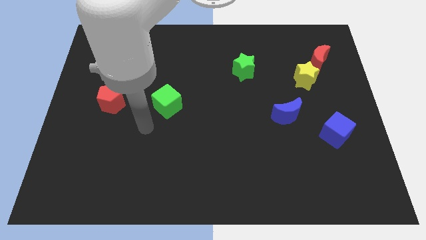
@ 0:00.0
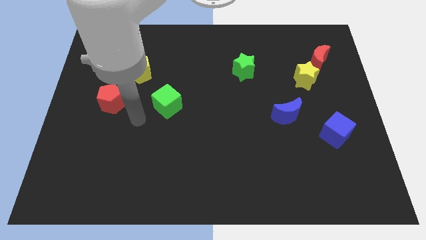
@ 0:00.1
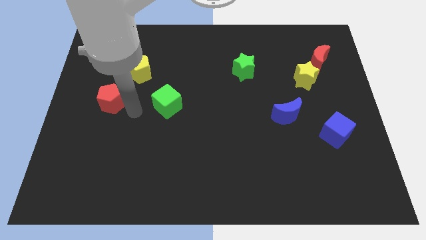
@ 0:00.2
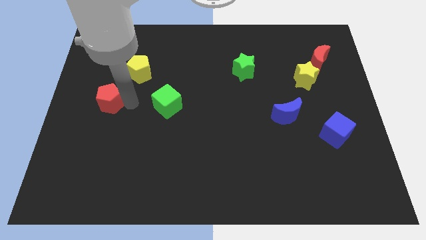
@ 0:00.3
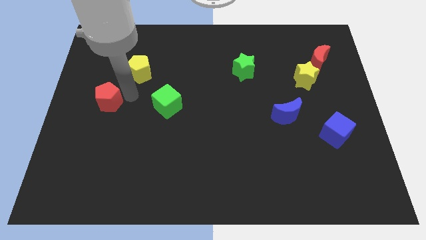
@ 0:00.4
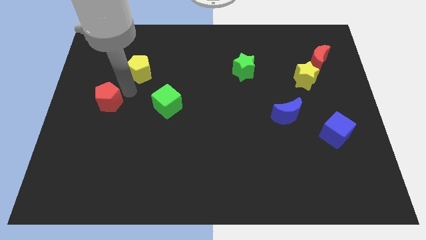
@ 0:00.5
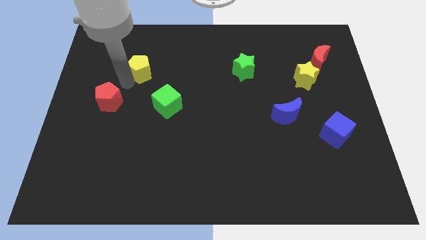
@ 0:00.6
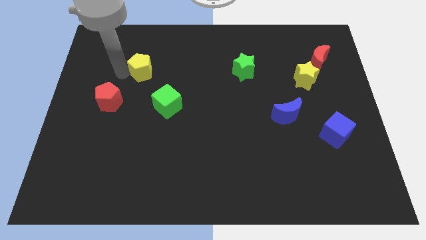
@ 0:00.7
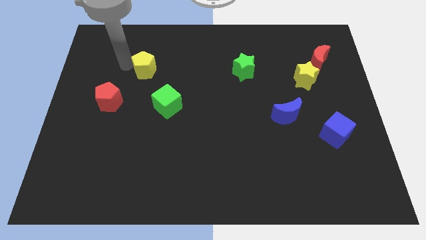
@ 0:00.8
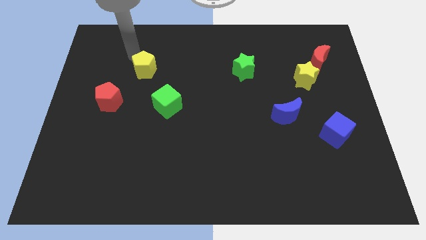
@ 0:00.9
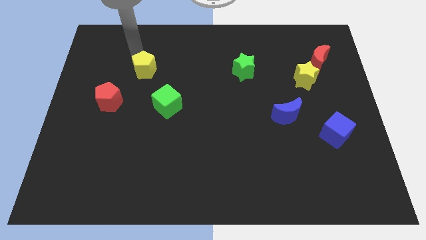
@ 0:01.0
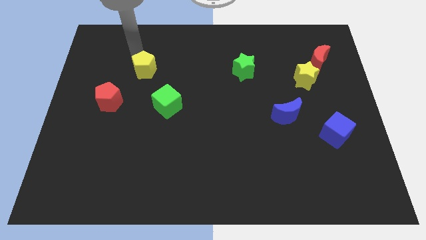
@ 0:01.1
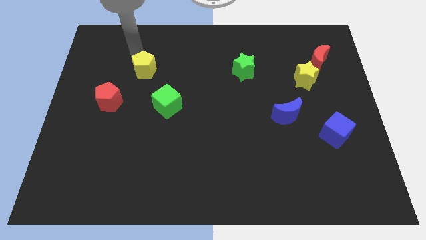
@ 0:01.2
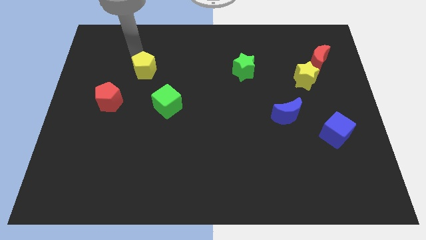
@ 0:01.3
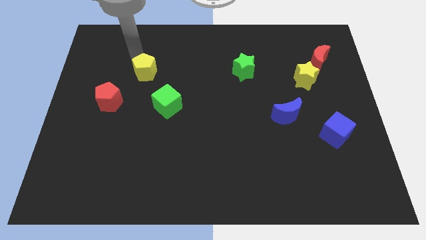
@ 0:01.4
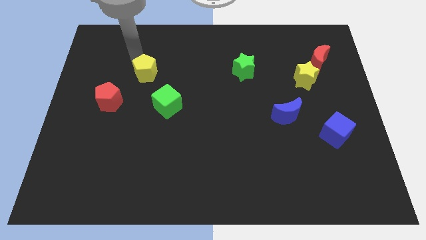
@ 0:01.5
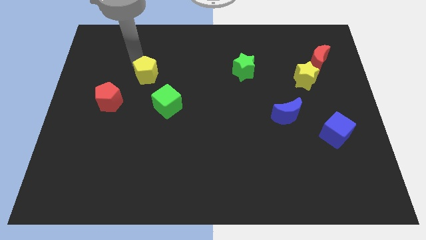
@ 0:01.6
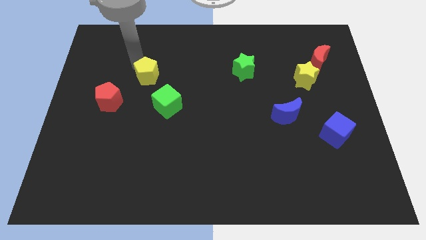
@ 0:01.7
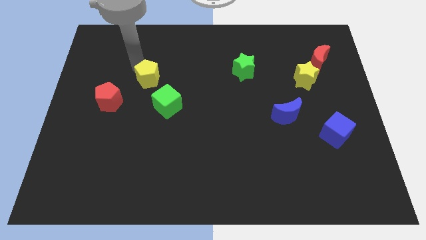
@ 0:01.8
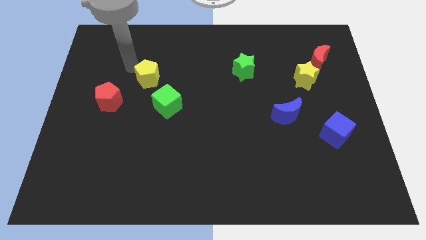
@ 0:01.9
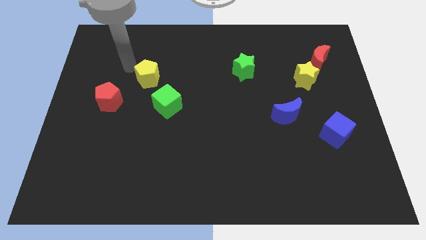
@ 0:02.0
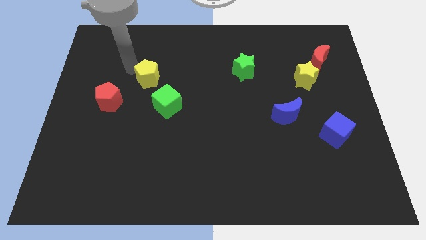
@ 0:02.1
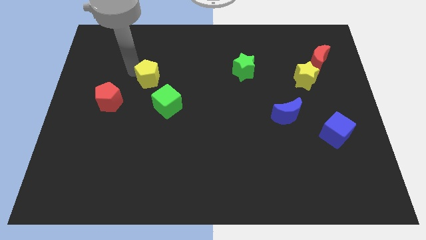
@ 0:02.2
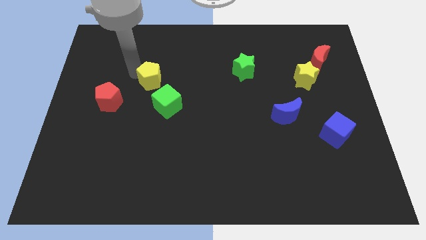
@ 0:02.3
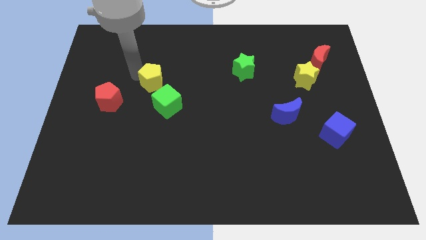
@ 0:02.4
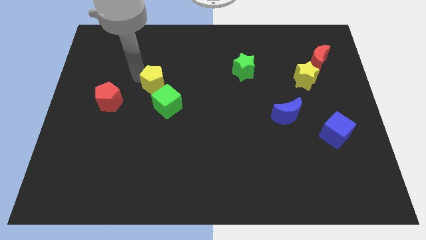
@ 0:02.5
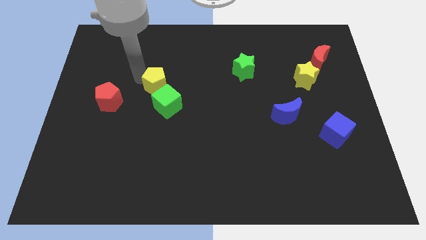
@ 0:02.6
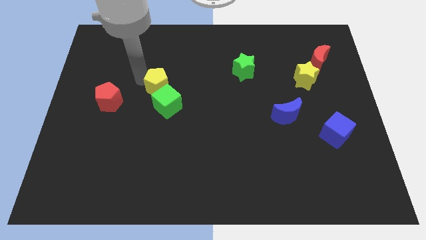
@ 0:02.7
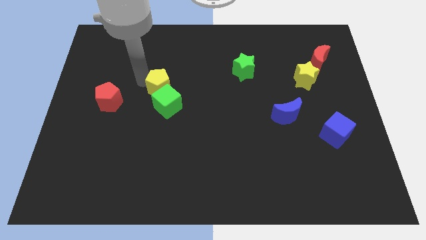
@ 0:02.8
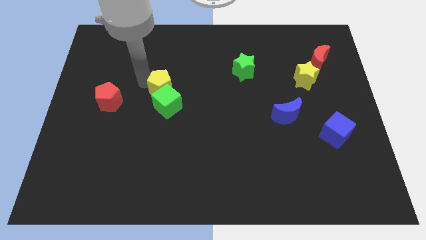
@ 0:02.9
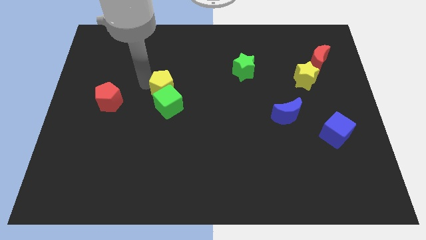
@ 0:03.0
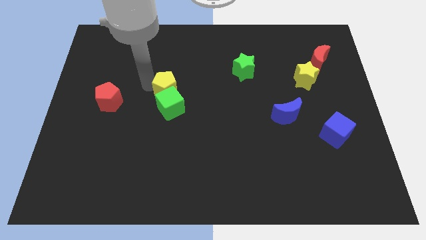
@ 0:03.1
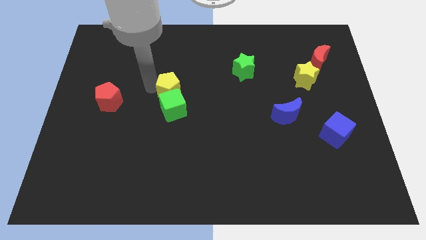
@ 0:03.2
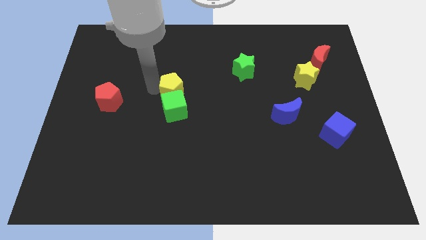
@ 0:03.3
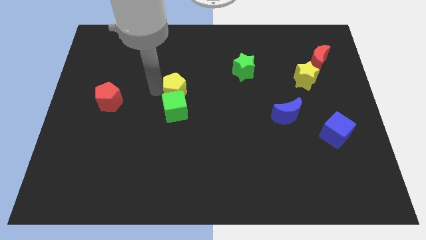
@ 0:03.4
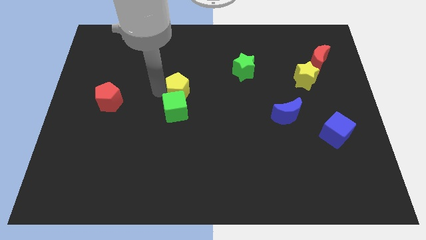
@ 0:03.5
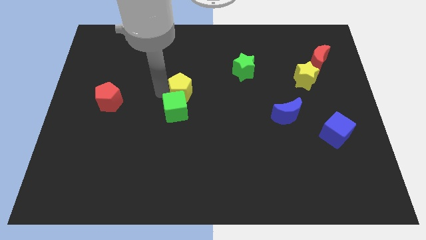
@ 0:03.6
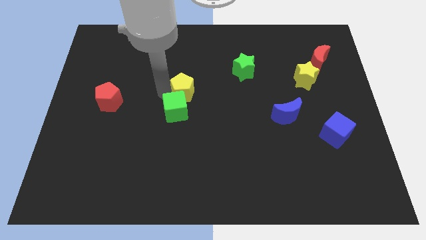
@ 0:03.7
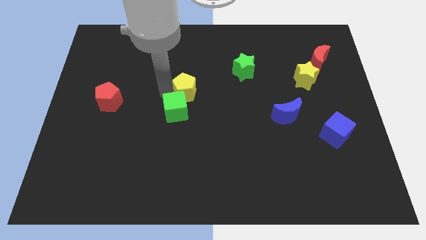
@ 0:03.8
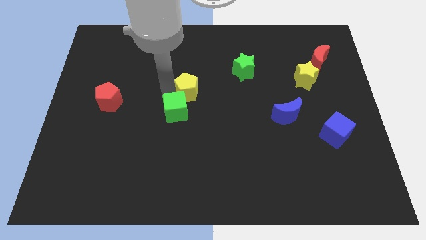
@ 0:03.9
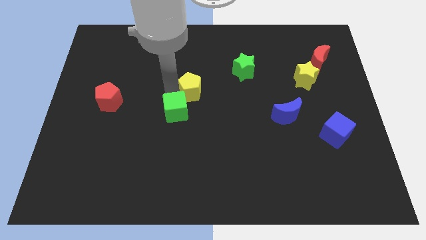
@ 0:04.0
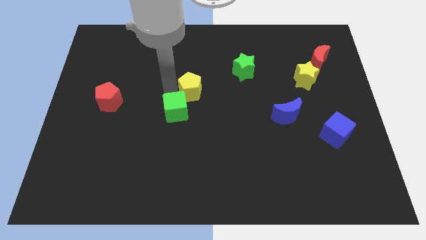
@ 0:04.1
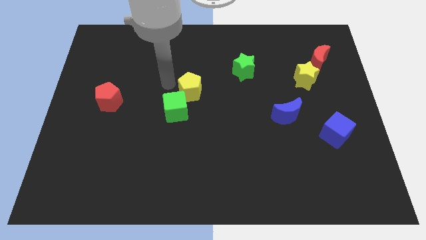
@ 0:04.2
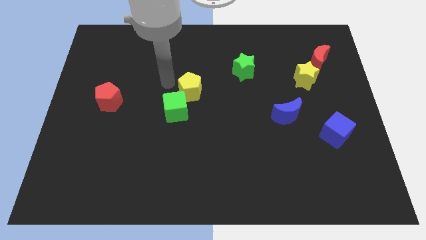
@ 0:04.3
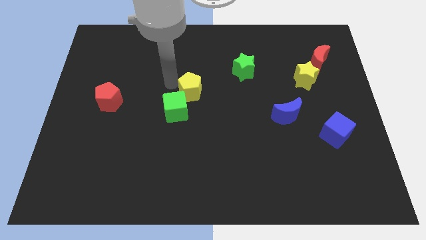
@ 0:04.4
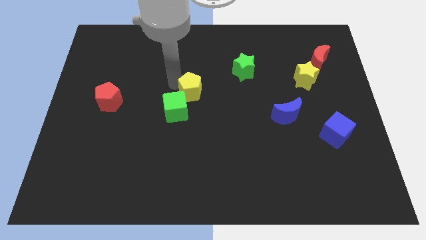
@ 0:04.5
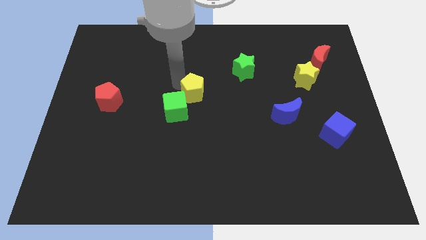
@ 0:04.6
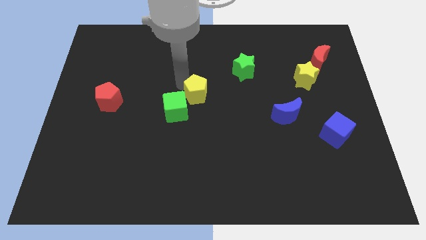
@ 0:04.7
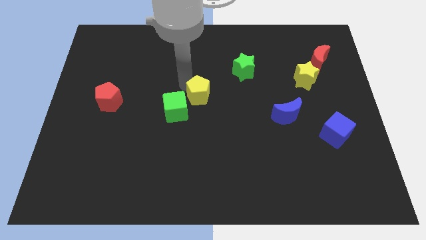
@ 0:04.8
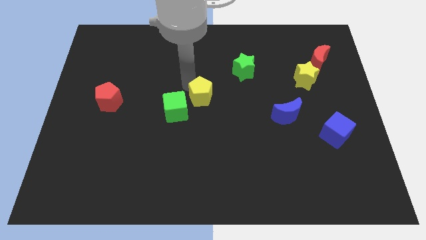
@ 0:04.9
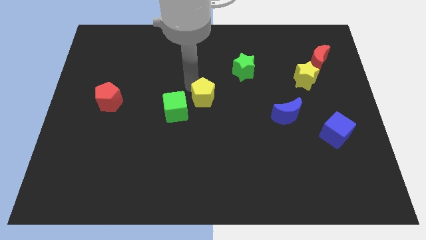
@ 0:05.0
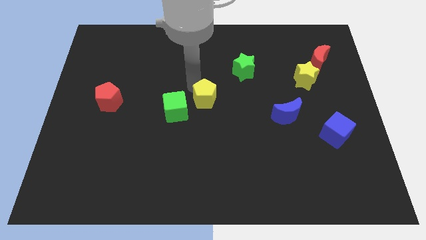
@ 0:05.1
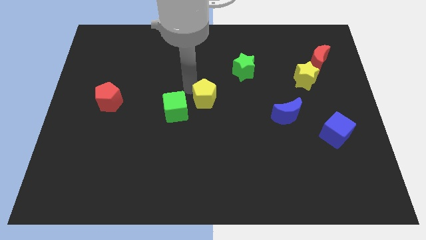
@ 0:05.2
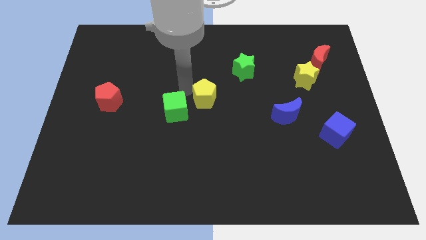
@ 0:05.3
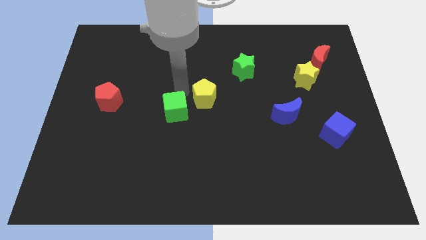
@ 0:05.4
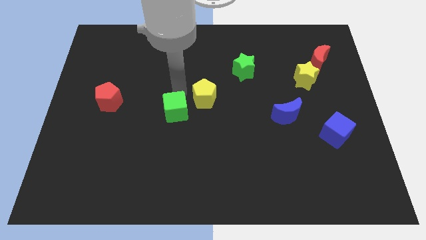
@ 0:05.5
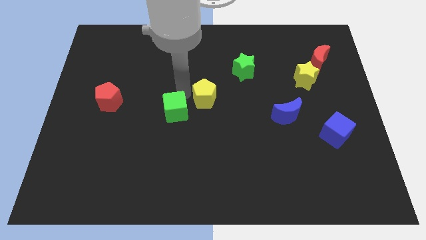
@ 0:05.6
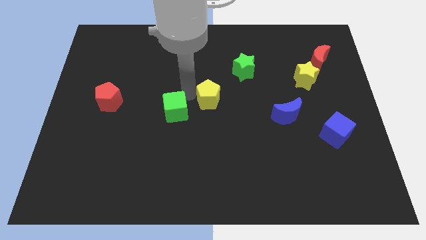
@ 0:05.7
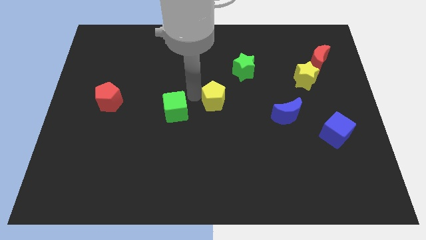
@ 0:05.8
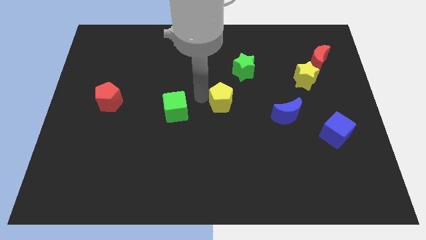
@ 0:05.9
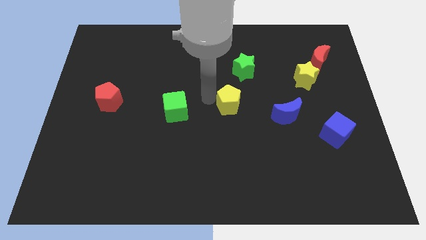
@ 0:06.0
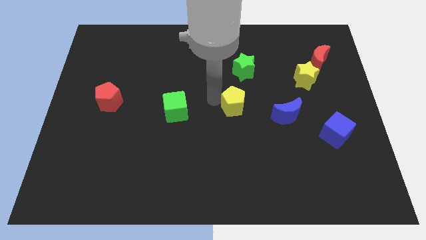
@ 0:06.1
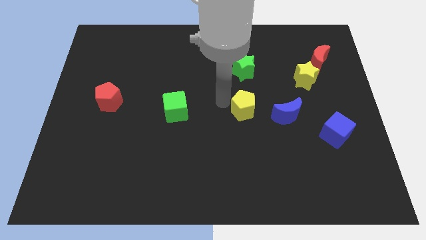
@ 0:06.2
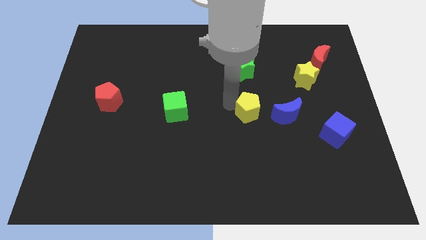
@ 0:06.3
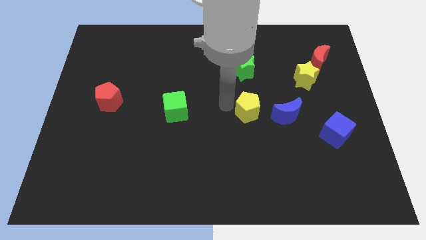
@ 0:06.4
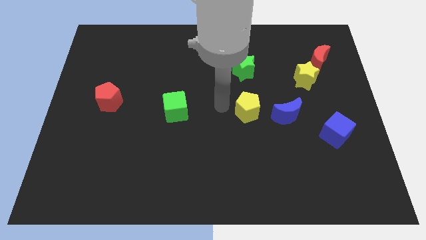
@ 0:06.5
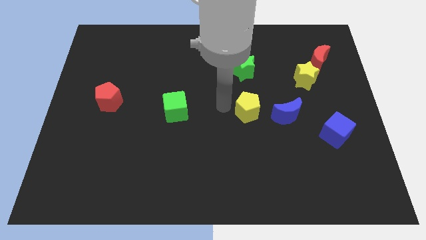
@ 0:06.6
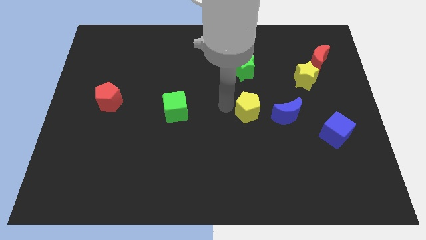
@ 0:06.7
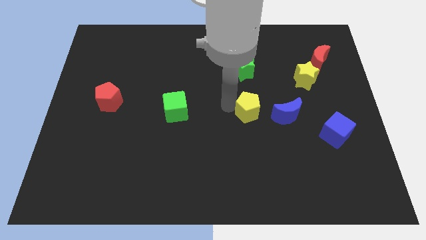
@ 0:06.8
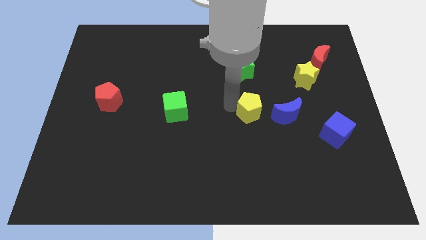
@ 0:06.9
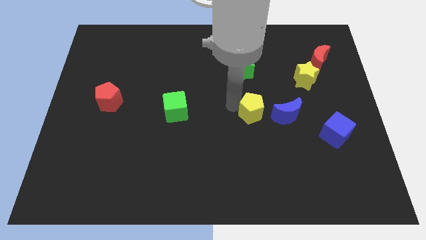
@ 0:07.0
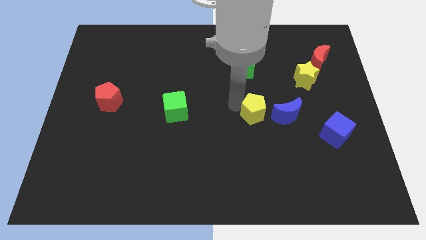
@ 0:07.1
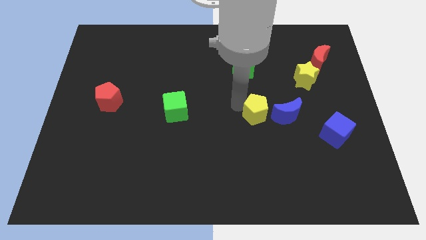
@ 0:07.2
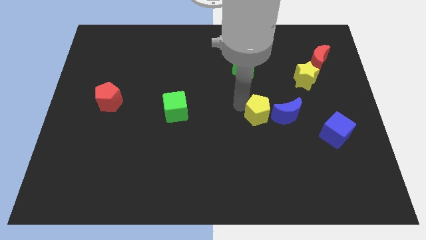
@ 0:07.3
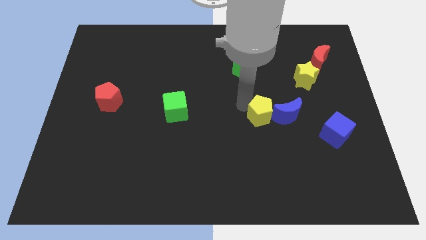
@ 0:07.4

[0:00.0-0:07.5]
move the yellow pentagon close to the blue moon

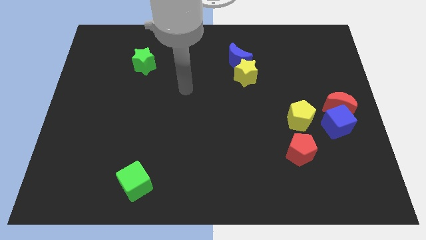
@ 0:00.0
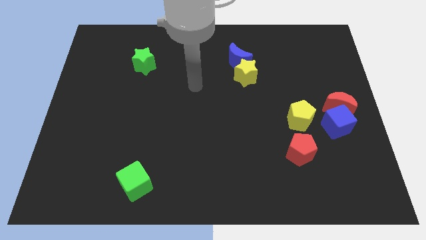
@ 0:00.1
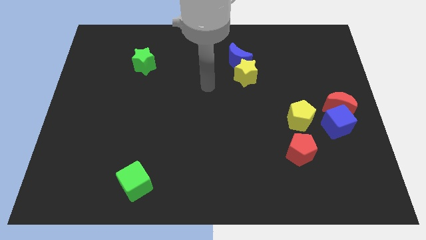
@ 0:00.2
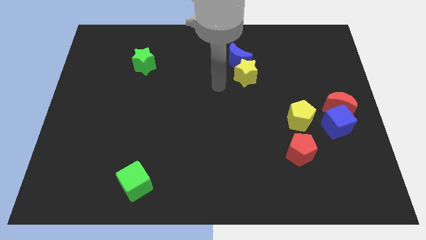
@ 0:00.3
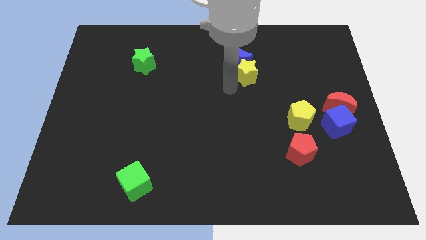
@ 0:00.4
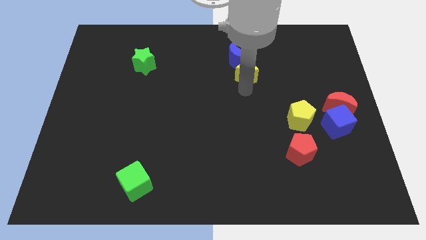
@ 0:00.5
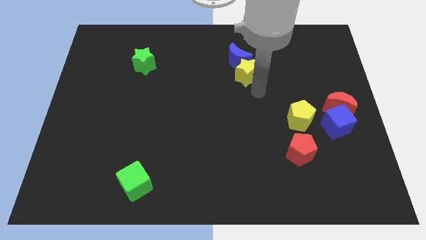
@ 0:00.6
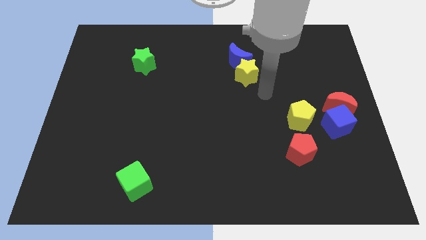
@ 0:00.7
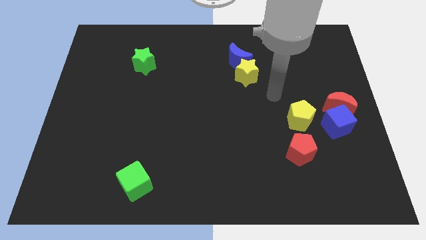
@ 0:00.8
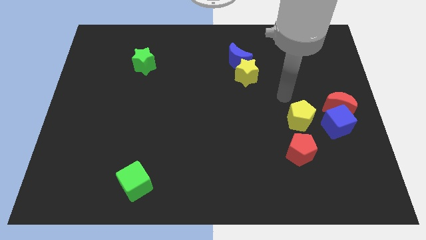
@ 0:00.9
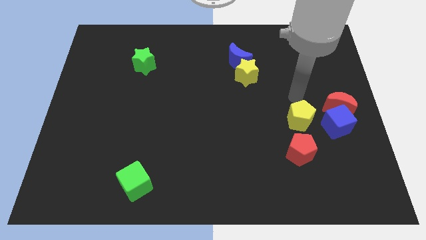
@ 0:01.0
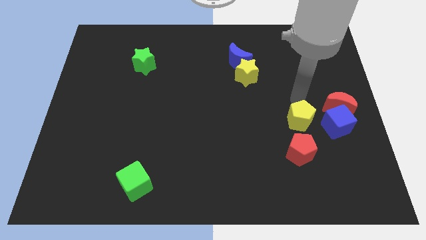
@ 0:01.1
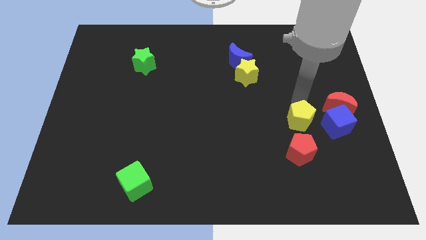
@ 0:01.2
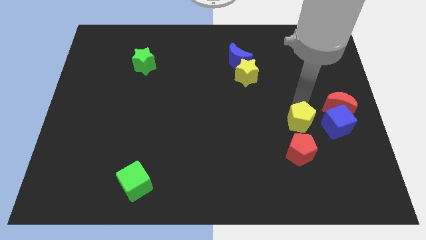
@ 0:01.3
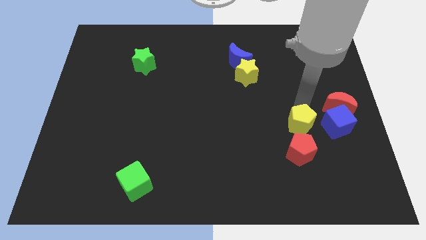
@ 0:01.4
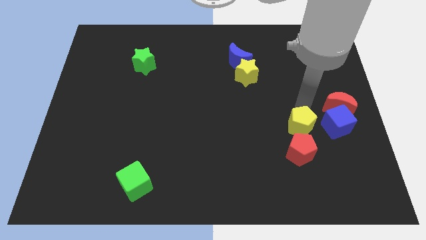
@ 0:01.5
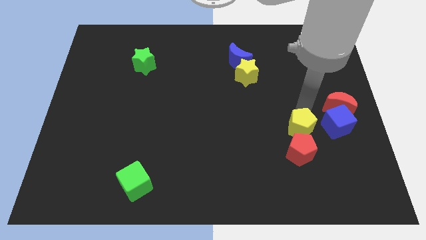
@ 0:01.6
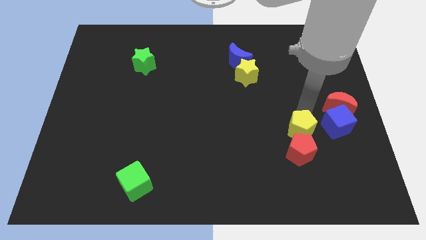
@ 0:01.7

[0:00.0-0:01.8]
slide the yellow pentagon close to the red pentagon
